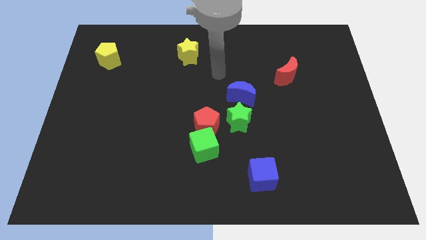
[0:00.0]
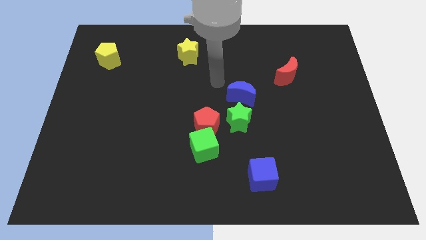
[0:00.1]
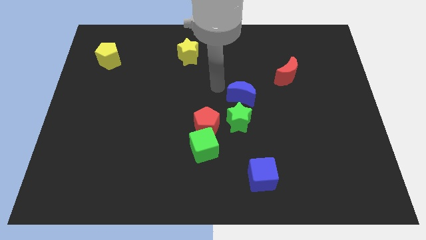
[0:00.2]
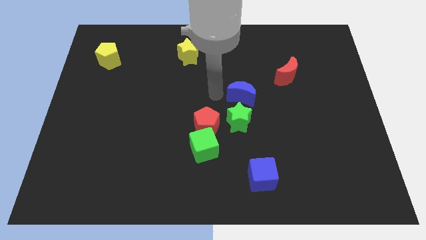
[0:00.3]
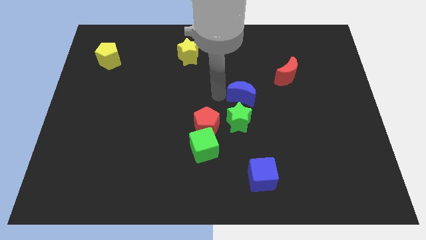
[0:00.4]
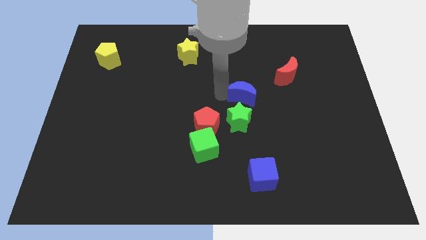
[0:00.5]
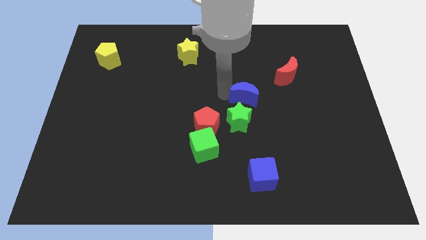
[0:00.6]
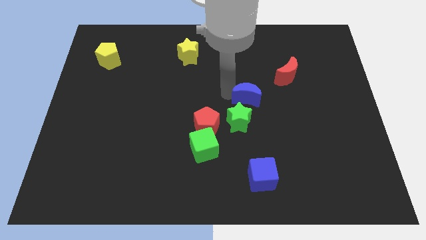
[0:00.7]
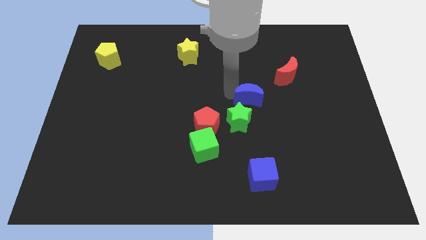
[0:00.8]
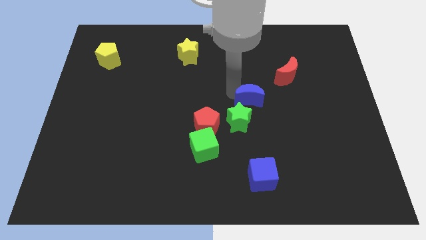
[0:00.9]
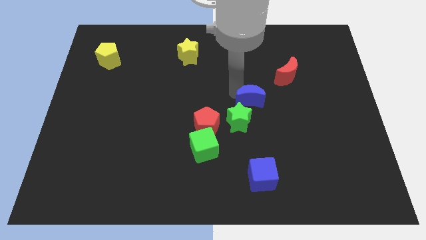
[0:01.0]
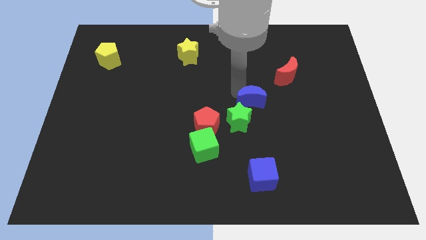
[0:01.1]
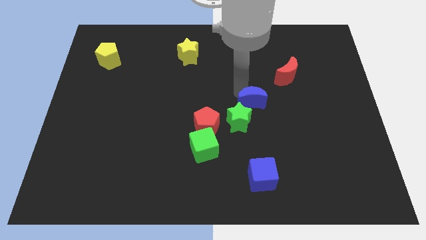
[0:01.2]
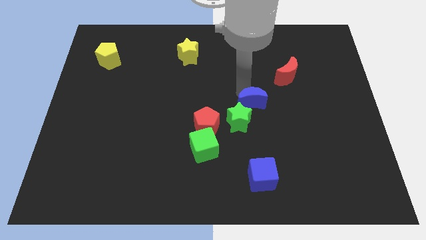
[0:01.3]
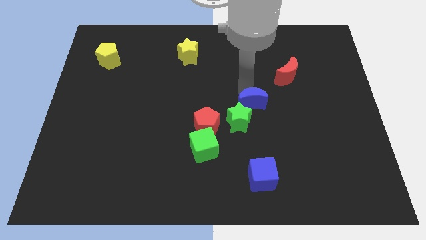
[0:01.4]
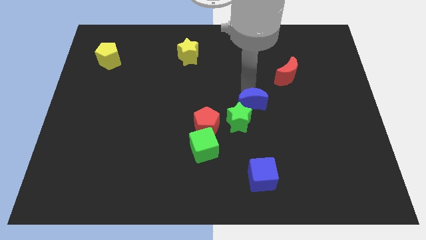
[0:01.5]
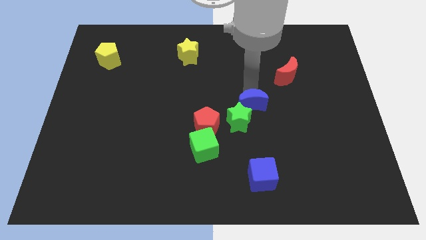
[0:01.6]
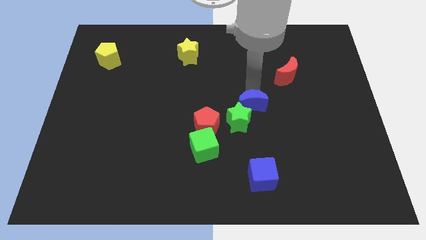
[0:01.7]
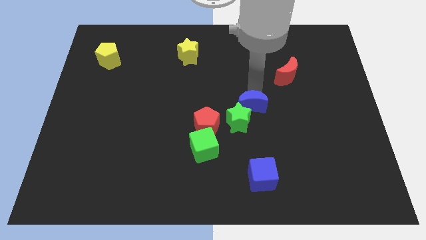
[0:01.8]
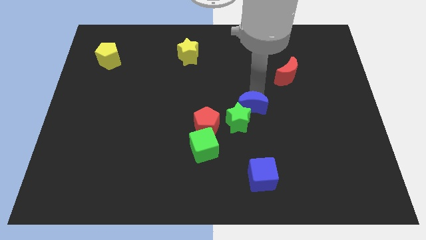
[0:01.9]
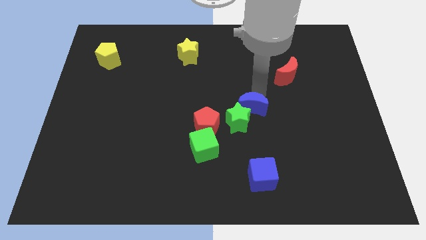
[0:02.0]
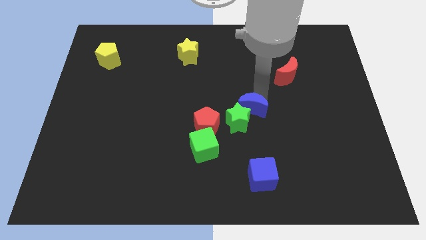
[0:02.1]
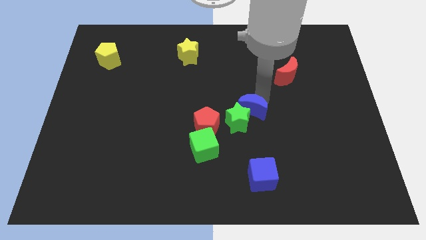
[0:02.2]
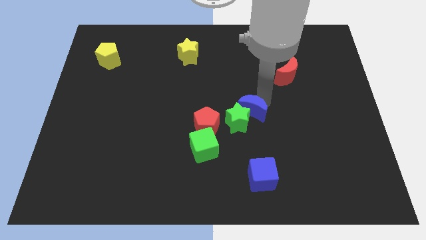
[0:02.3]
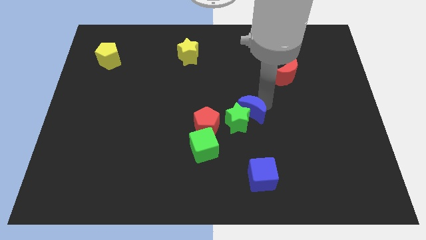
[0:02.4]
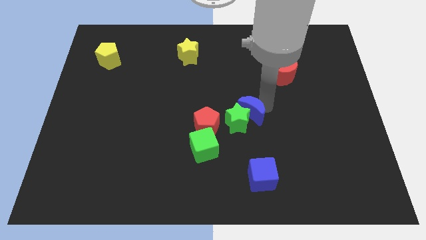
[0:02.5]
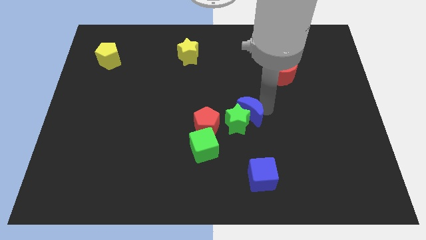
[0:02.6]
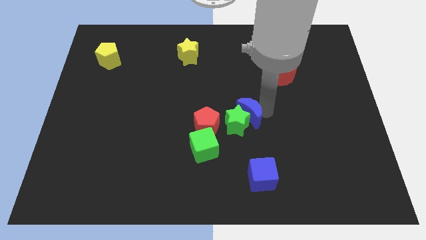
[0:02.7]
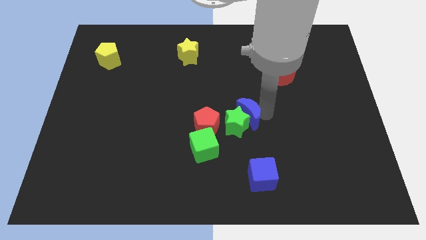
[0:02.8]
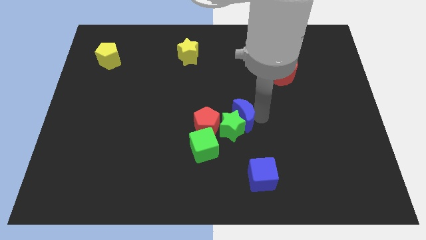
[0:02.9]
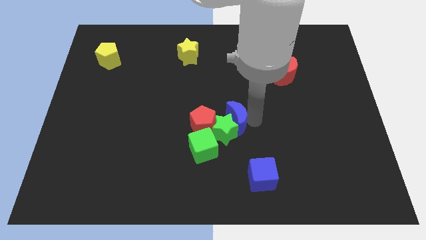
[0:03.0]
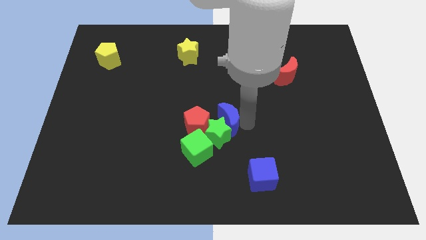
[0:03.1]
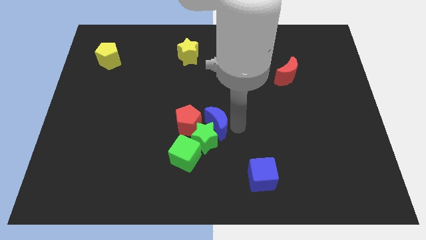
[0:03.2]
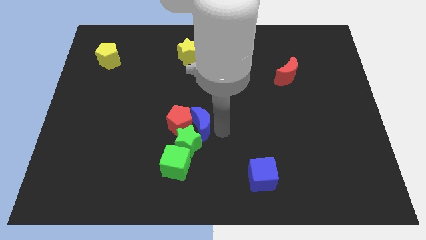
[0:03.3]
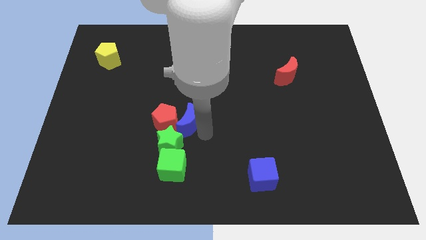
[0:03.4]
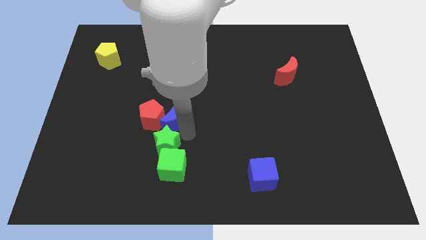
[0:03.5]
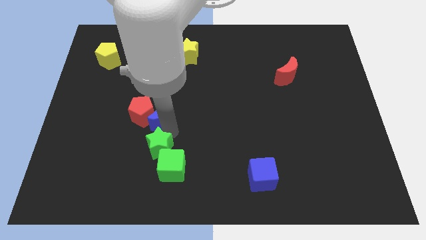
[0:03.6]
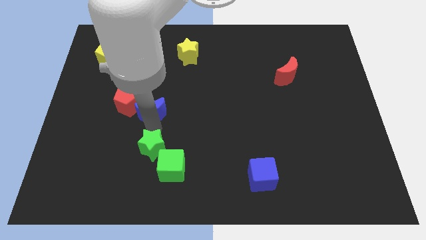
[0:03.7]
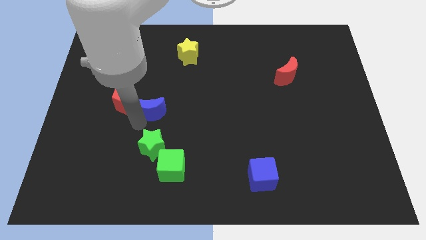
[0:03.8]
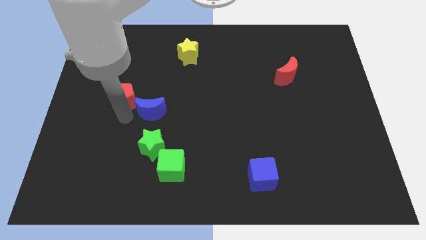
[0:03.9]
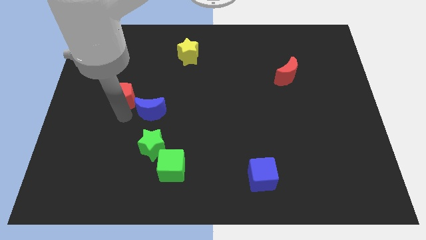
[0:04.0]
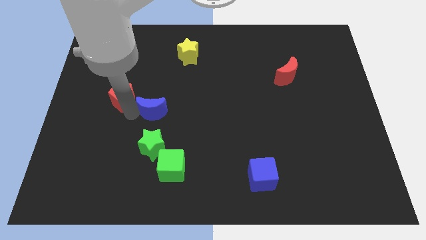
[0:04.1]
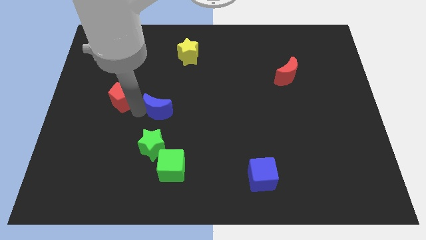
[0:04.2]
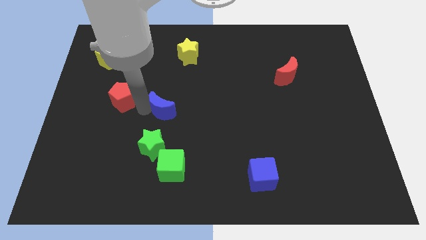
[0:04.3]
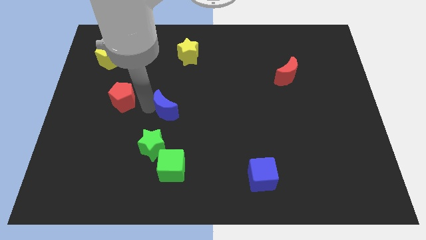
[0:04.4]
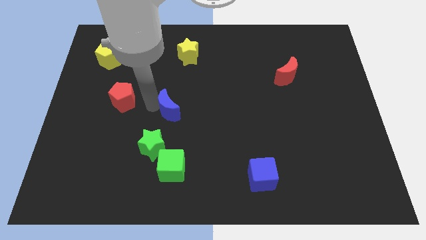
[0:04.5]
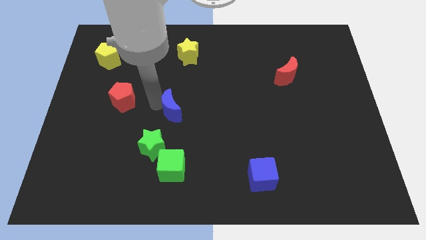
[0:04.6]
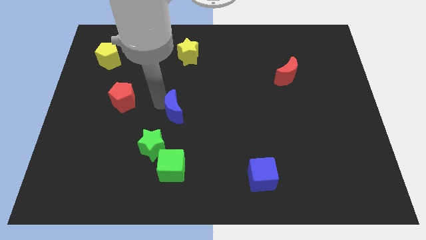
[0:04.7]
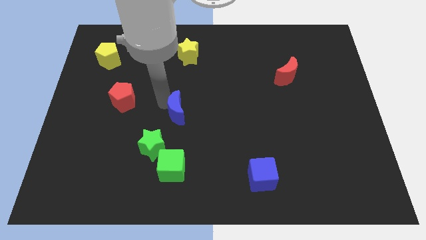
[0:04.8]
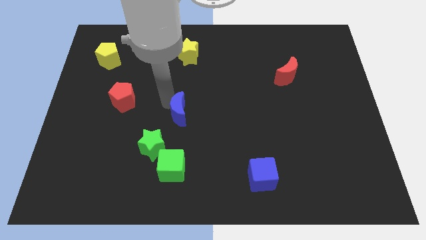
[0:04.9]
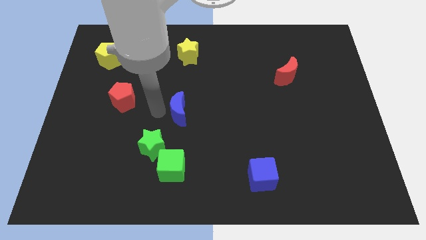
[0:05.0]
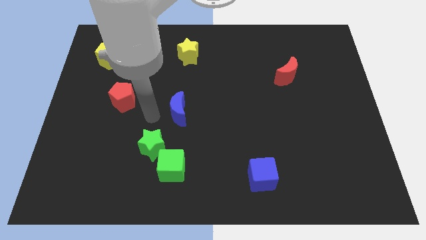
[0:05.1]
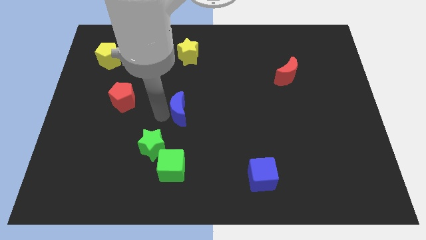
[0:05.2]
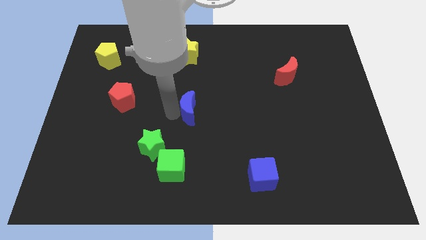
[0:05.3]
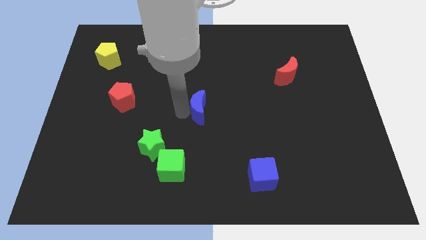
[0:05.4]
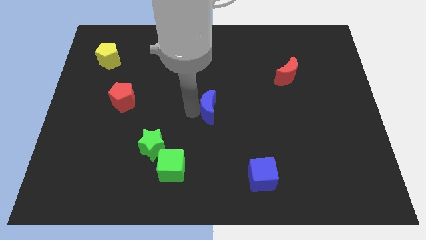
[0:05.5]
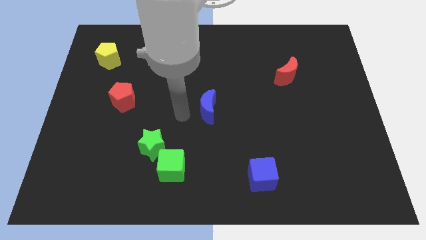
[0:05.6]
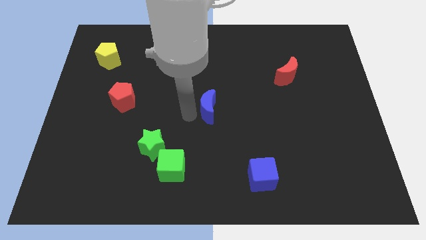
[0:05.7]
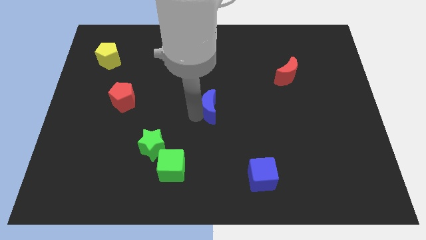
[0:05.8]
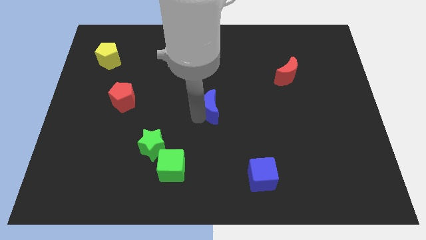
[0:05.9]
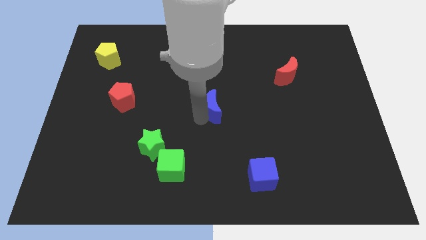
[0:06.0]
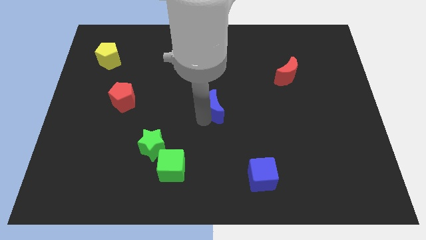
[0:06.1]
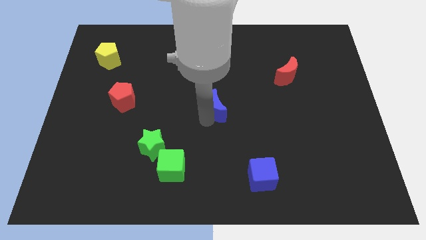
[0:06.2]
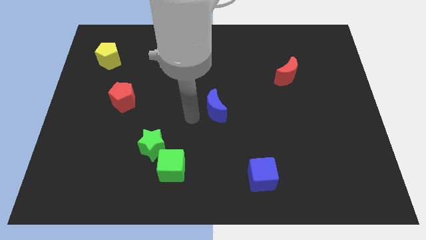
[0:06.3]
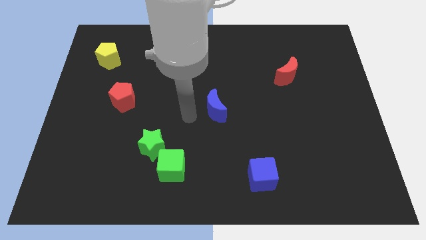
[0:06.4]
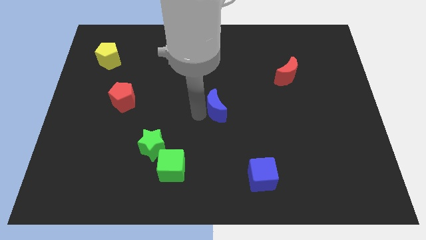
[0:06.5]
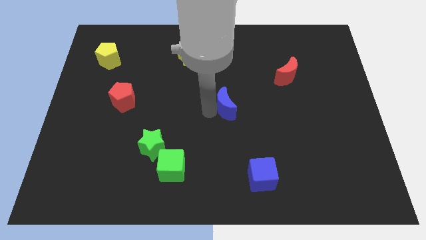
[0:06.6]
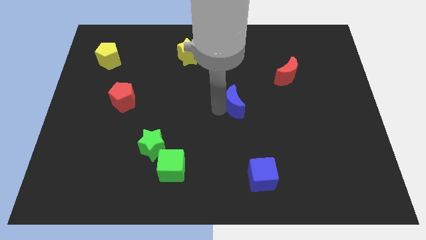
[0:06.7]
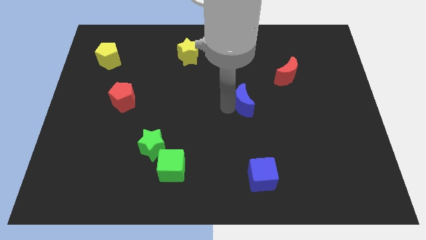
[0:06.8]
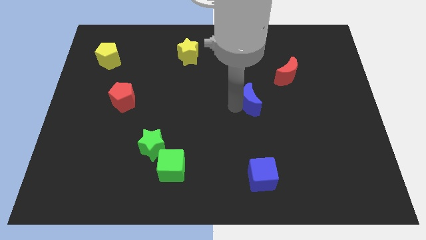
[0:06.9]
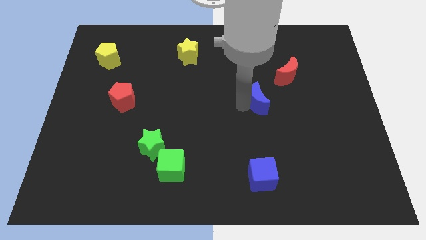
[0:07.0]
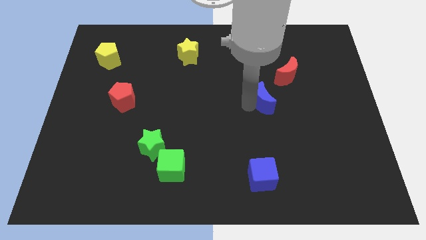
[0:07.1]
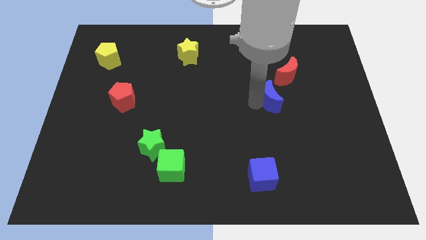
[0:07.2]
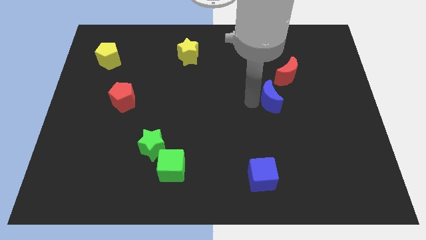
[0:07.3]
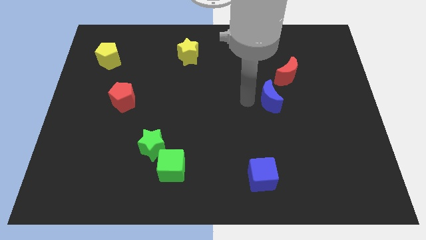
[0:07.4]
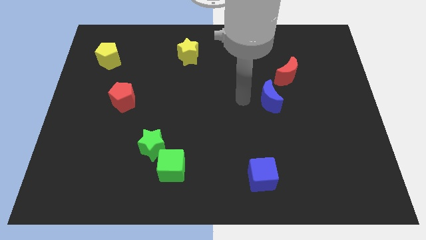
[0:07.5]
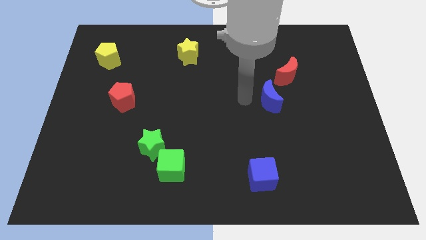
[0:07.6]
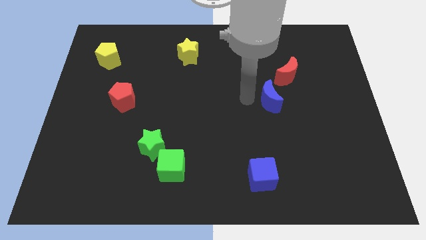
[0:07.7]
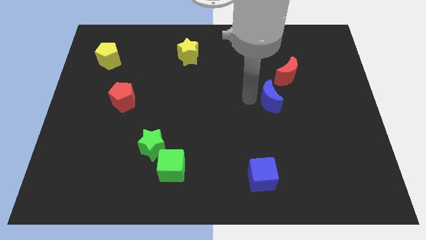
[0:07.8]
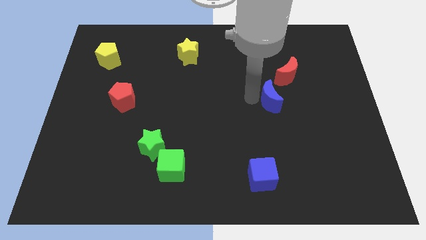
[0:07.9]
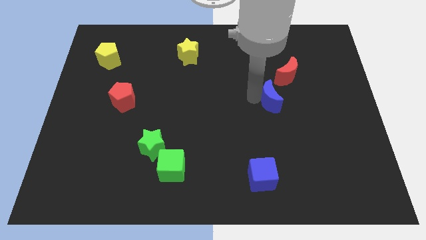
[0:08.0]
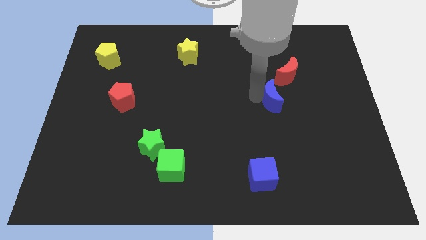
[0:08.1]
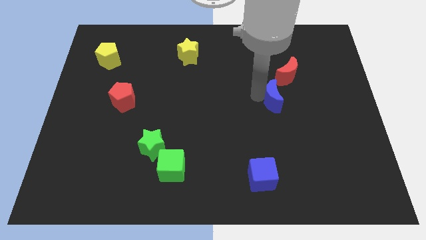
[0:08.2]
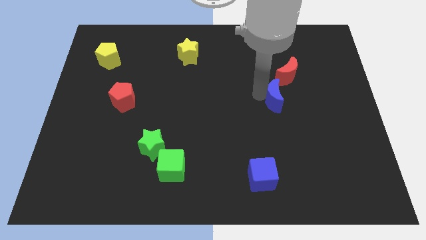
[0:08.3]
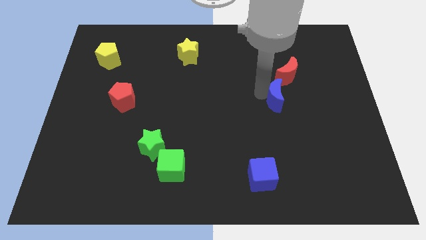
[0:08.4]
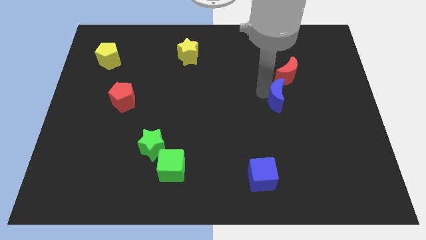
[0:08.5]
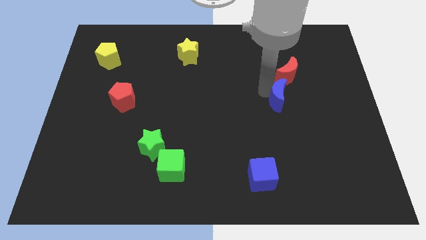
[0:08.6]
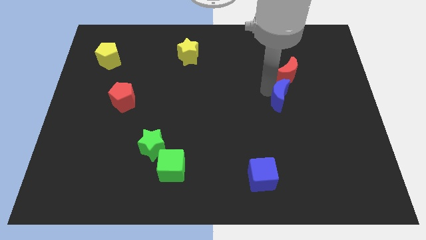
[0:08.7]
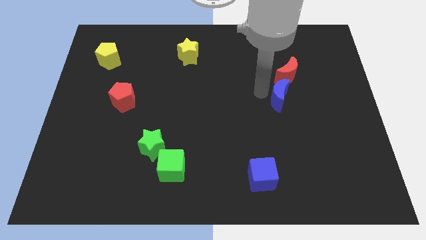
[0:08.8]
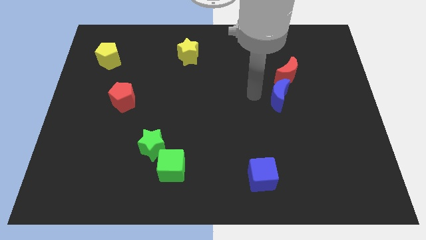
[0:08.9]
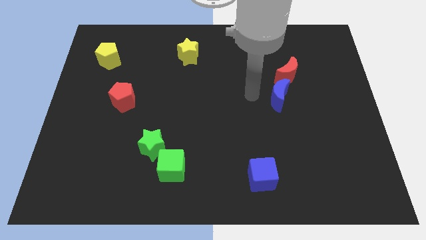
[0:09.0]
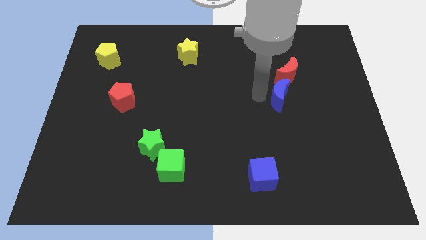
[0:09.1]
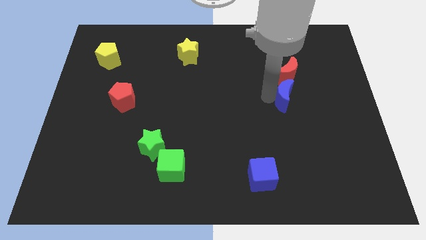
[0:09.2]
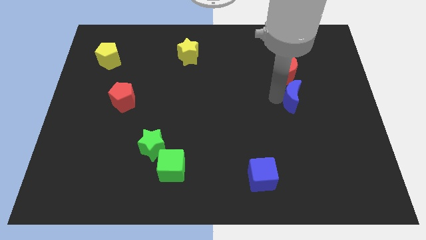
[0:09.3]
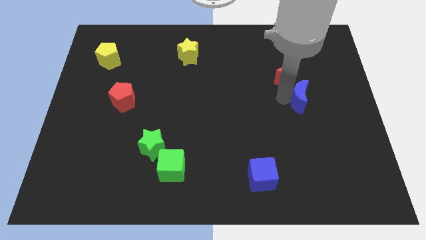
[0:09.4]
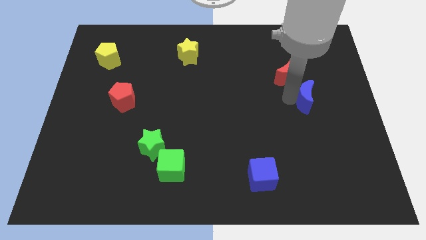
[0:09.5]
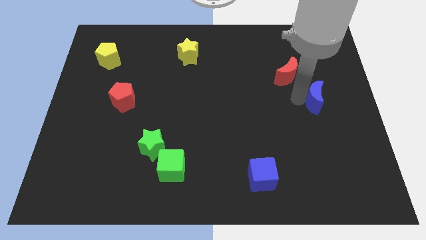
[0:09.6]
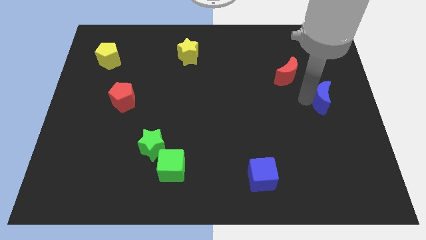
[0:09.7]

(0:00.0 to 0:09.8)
push the blue moon to the right side of the board
